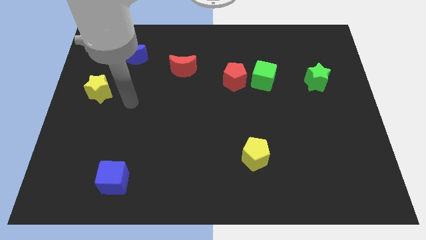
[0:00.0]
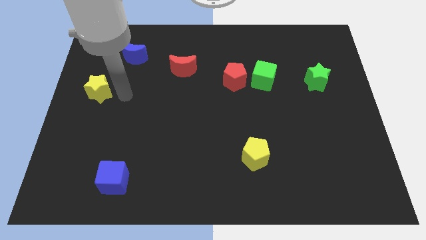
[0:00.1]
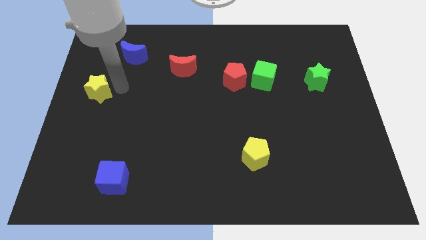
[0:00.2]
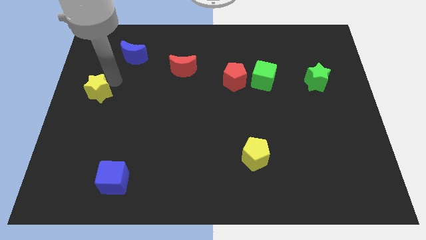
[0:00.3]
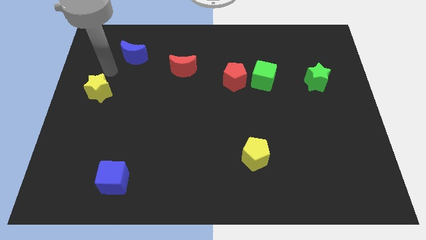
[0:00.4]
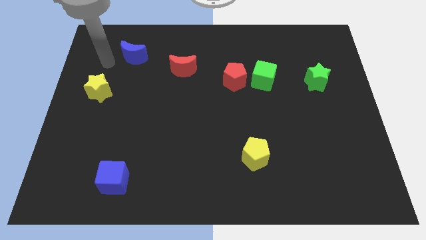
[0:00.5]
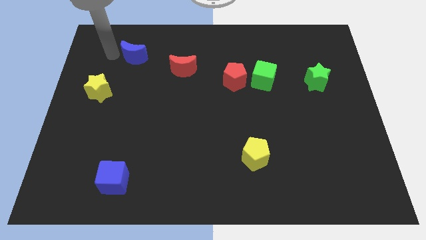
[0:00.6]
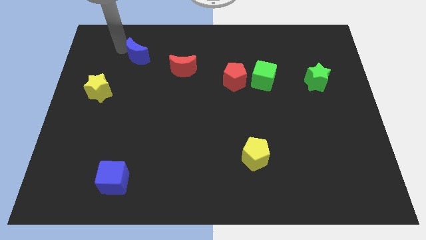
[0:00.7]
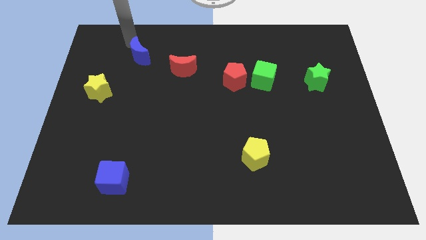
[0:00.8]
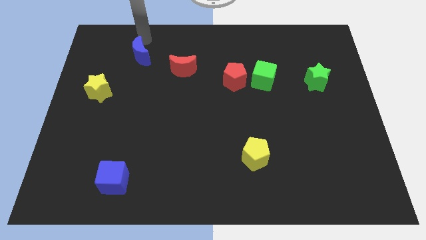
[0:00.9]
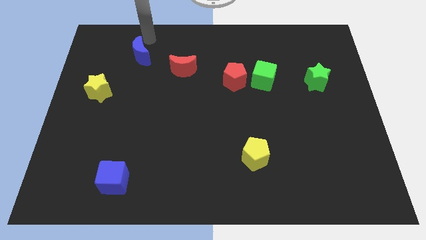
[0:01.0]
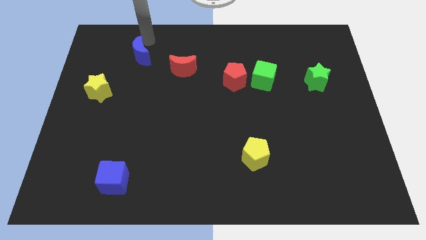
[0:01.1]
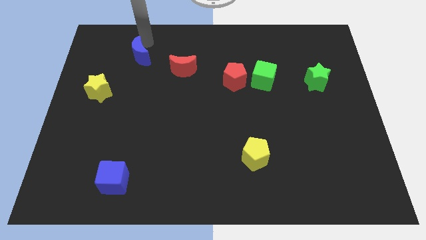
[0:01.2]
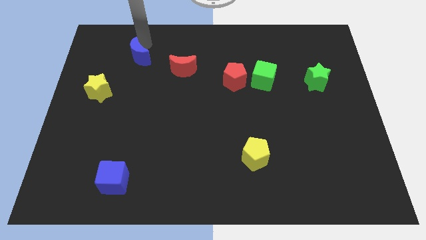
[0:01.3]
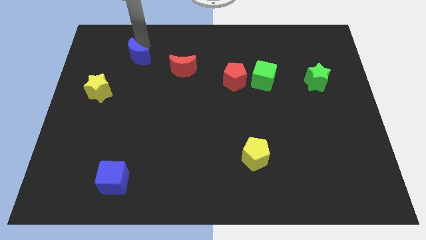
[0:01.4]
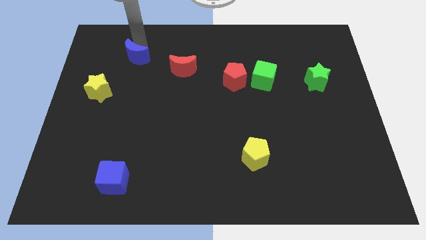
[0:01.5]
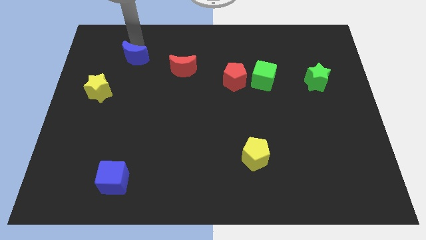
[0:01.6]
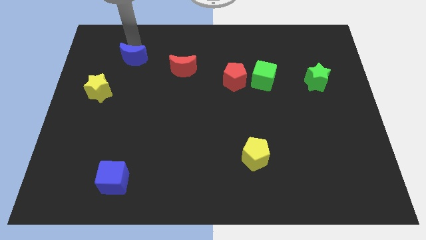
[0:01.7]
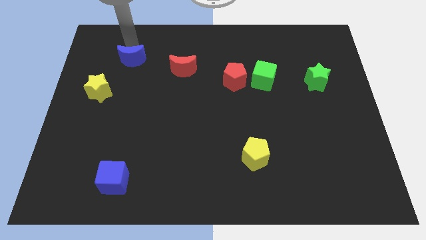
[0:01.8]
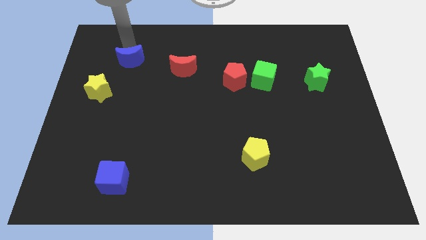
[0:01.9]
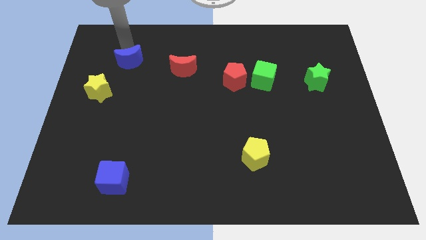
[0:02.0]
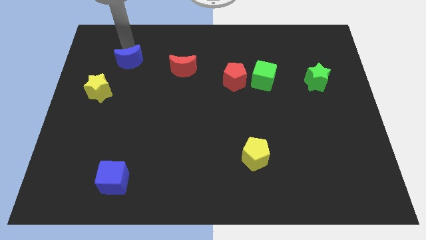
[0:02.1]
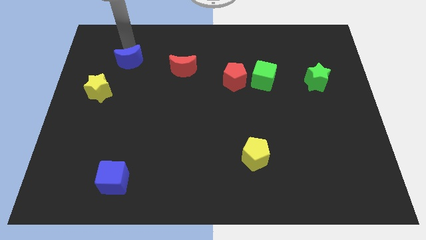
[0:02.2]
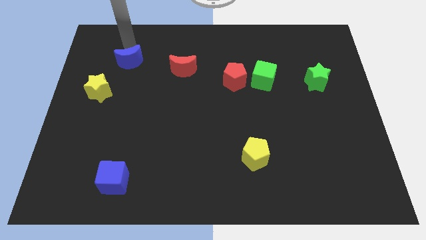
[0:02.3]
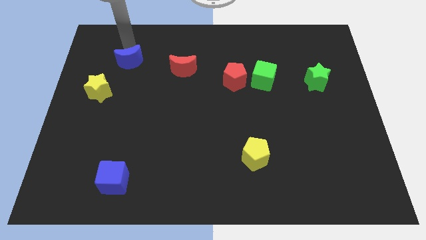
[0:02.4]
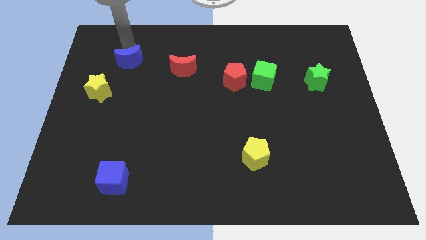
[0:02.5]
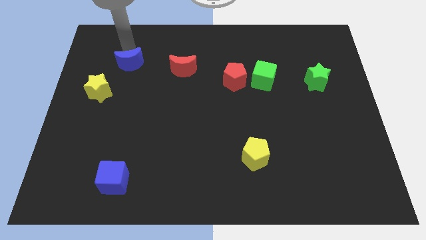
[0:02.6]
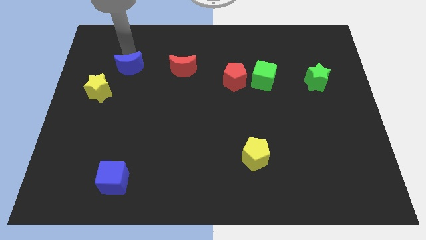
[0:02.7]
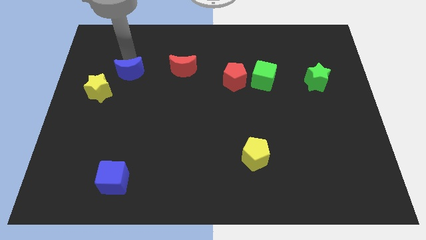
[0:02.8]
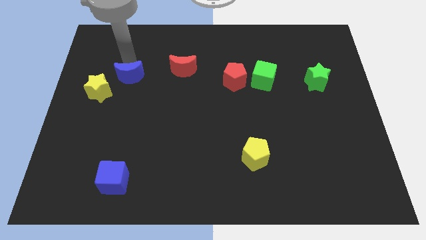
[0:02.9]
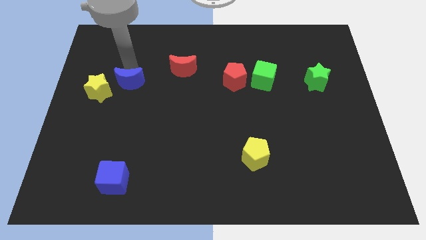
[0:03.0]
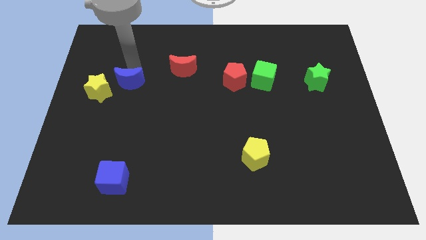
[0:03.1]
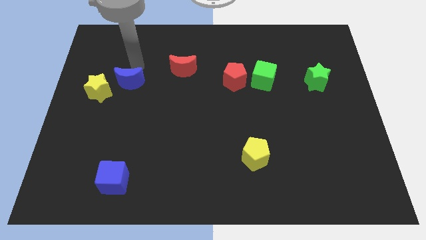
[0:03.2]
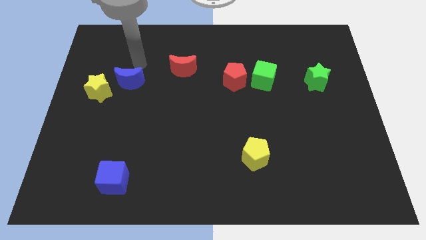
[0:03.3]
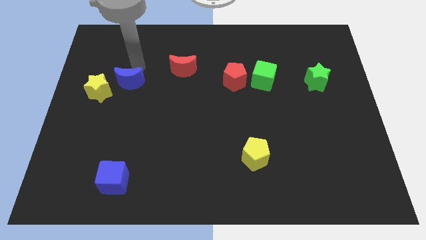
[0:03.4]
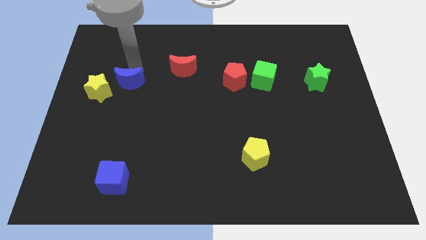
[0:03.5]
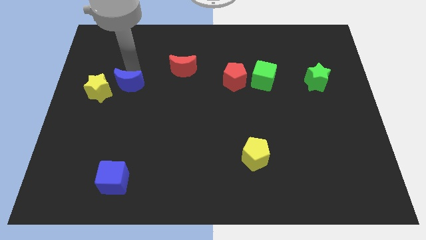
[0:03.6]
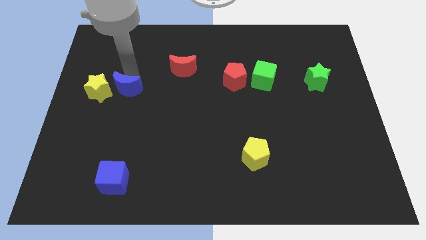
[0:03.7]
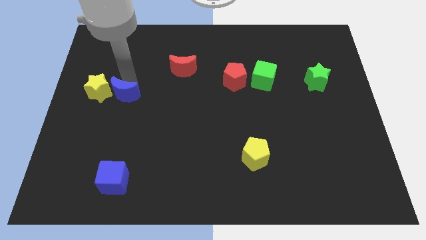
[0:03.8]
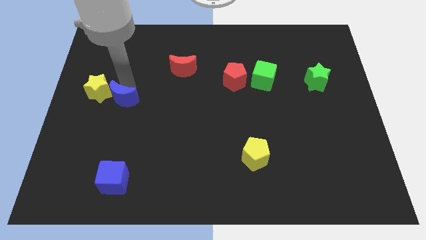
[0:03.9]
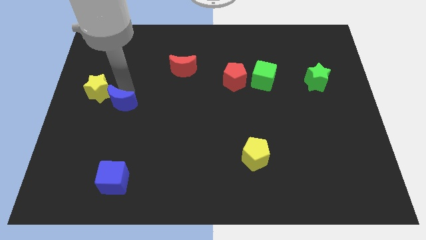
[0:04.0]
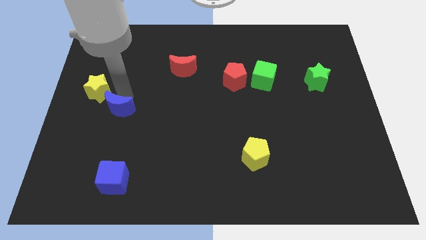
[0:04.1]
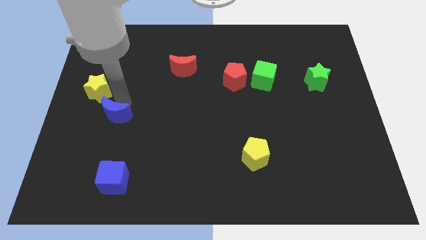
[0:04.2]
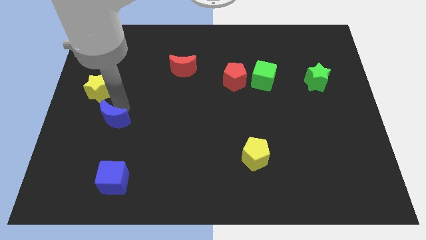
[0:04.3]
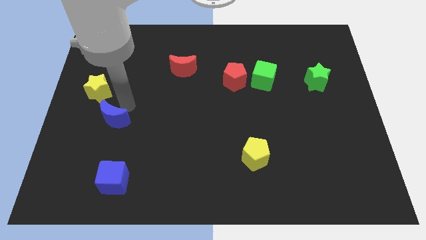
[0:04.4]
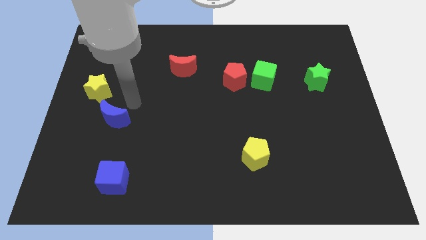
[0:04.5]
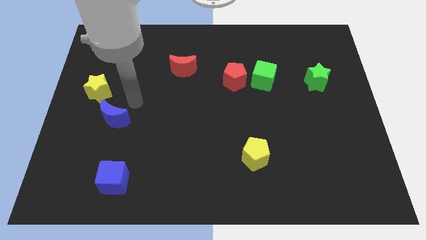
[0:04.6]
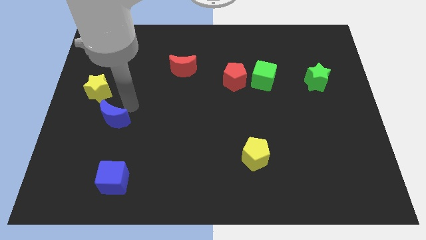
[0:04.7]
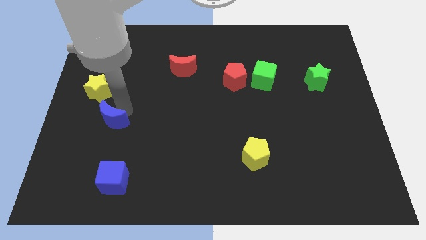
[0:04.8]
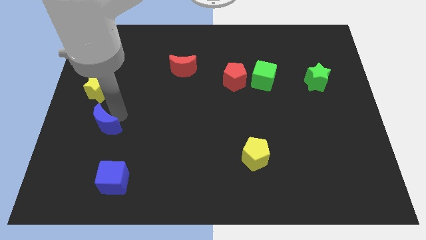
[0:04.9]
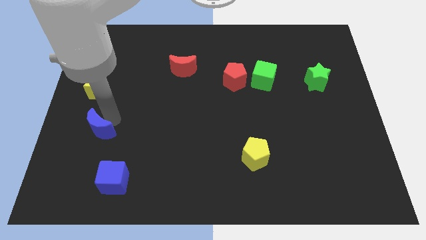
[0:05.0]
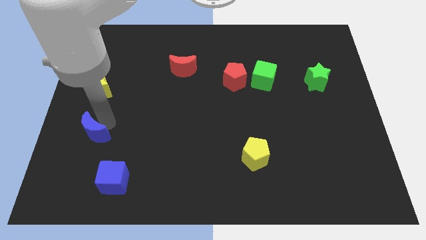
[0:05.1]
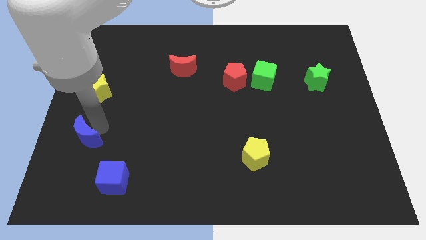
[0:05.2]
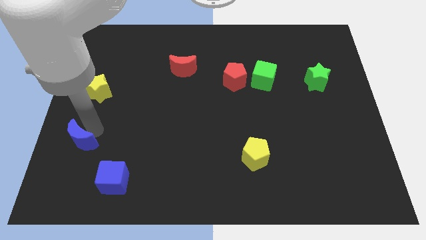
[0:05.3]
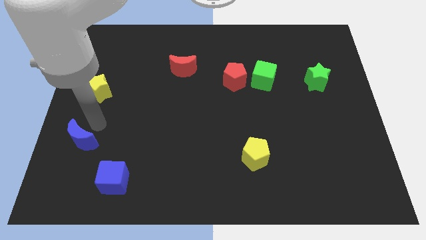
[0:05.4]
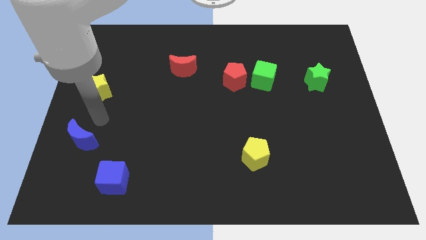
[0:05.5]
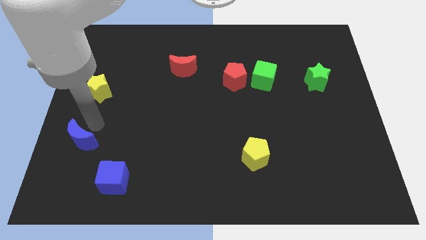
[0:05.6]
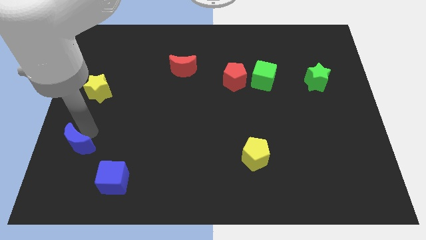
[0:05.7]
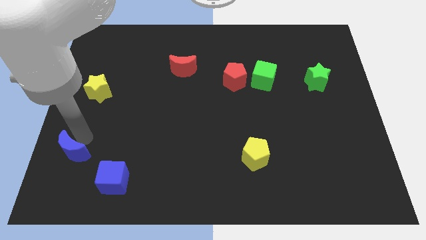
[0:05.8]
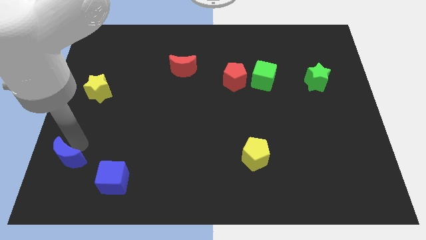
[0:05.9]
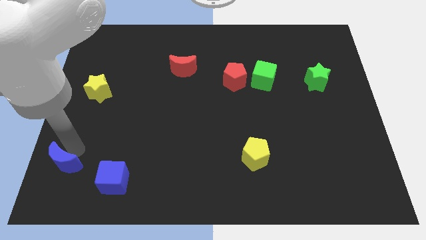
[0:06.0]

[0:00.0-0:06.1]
put the blue moon to the lower left corner
